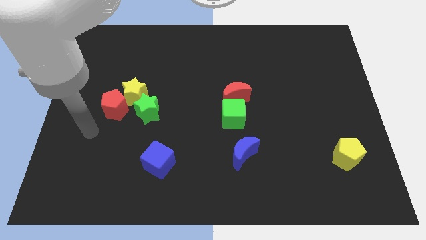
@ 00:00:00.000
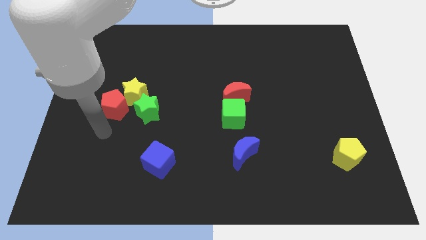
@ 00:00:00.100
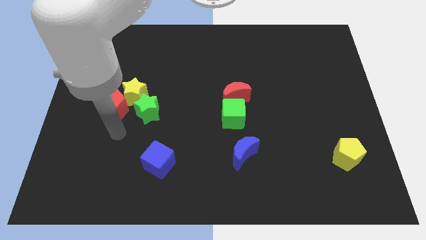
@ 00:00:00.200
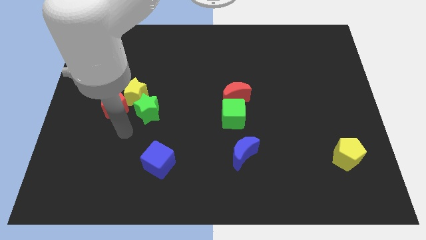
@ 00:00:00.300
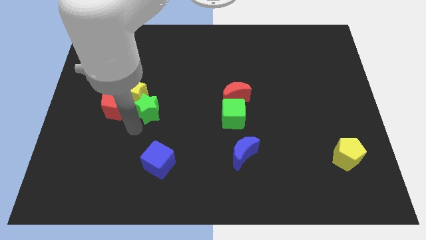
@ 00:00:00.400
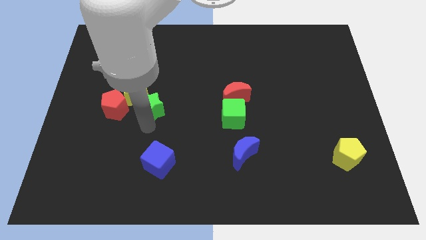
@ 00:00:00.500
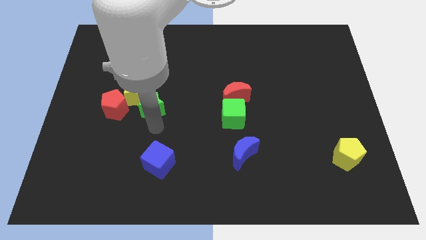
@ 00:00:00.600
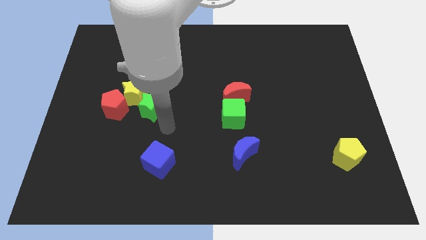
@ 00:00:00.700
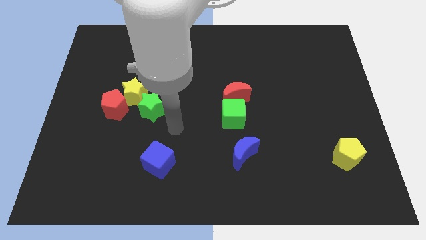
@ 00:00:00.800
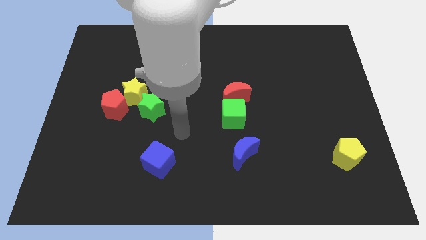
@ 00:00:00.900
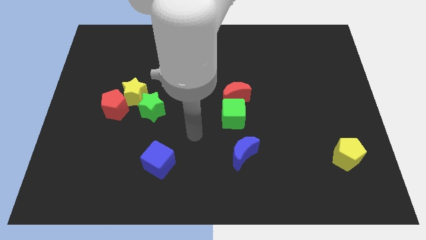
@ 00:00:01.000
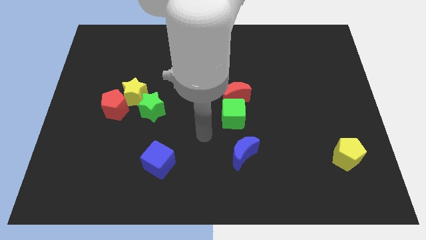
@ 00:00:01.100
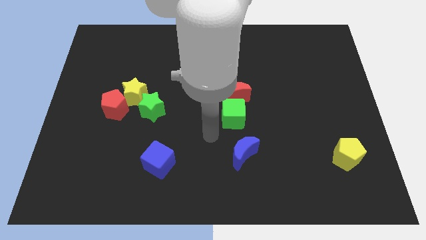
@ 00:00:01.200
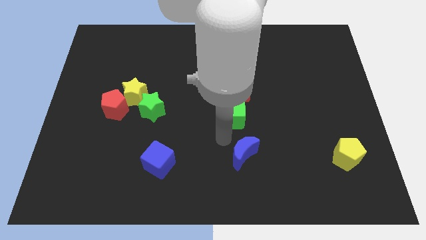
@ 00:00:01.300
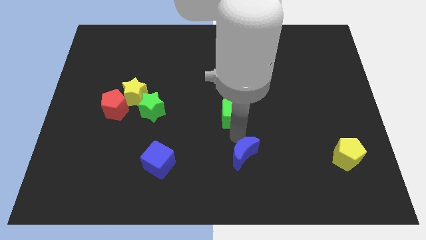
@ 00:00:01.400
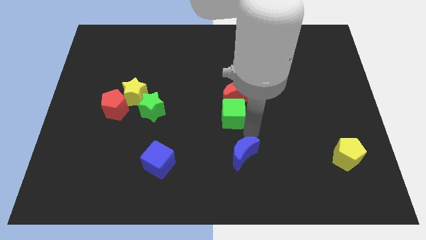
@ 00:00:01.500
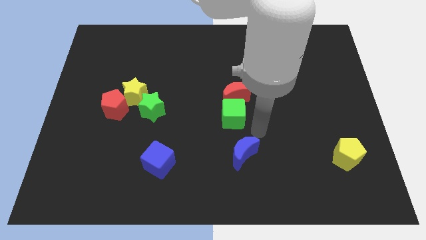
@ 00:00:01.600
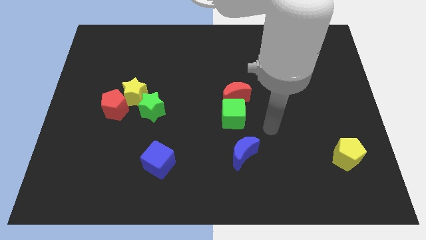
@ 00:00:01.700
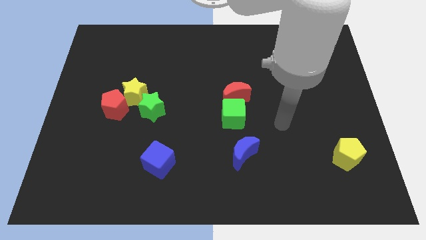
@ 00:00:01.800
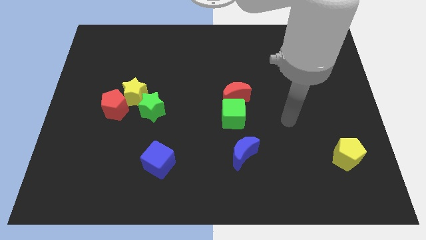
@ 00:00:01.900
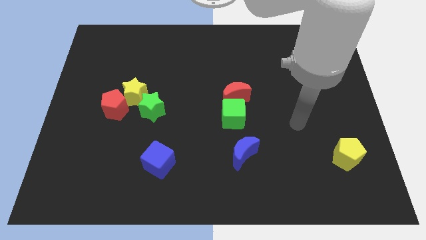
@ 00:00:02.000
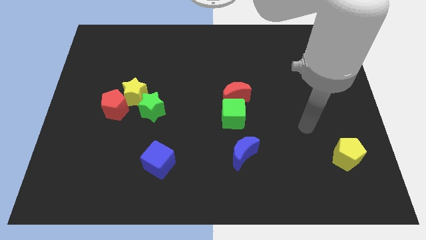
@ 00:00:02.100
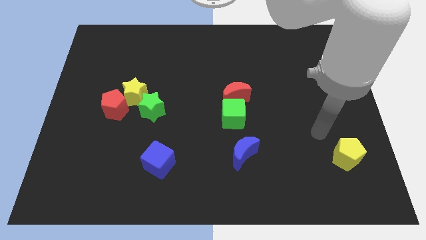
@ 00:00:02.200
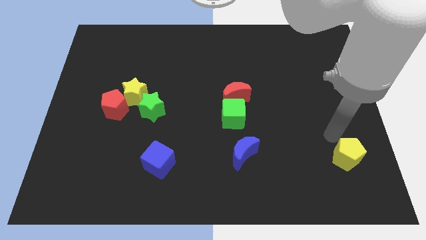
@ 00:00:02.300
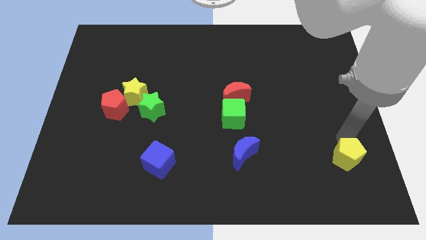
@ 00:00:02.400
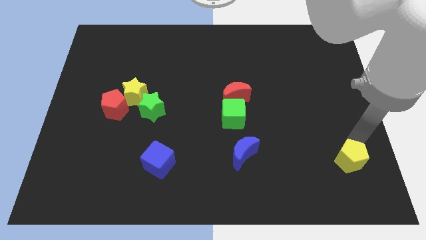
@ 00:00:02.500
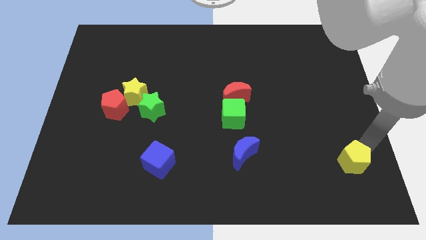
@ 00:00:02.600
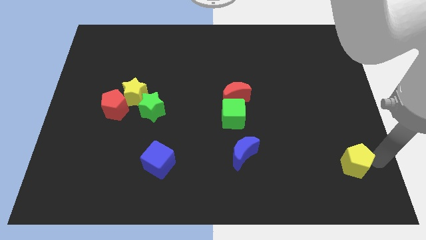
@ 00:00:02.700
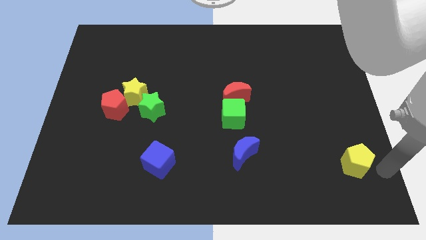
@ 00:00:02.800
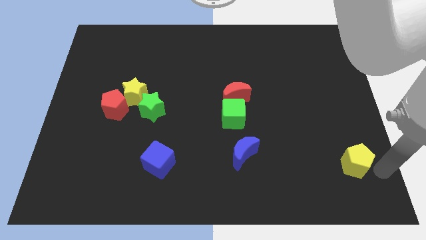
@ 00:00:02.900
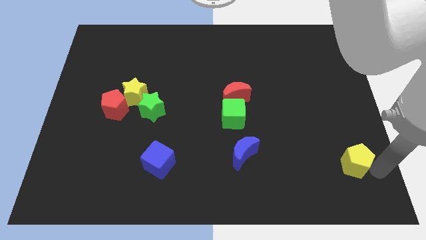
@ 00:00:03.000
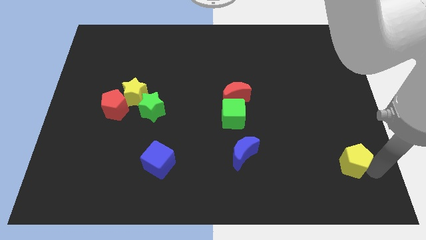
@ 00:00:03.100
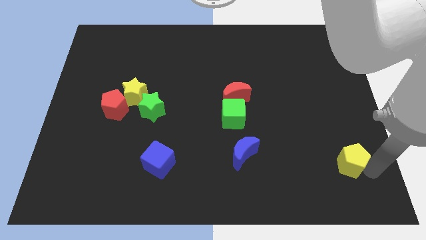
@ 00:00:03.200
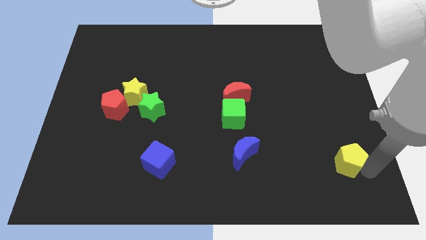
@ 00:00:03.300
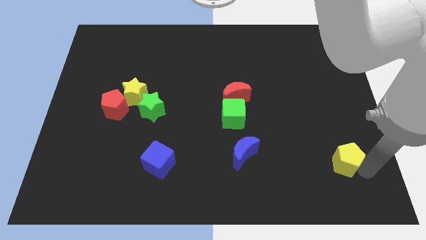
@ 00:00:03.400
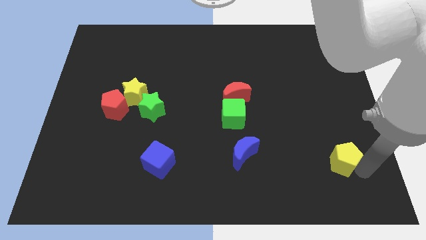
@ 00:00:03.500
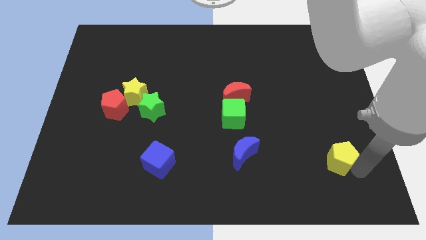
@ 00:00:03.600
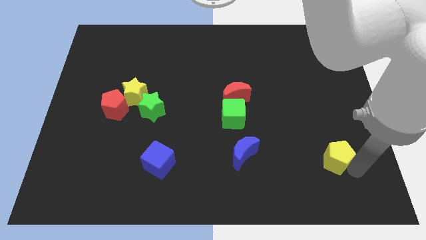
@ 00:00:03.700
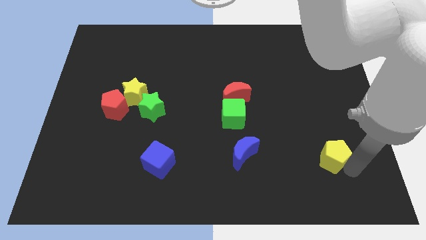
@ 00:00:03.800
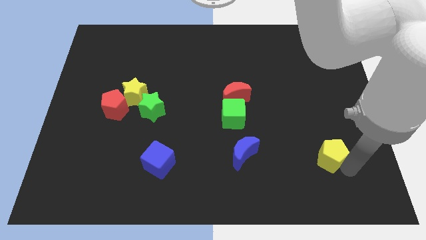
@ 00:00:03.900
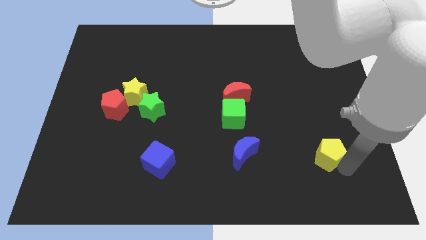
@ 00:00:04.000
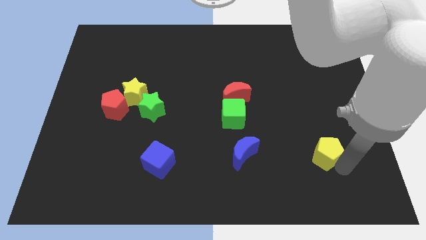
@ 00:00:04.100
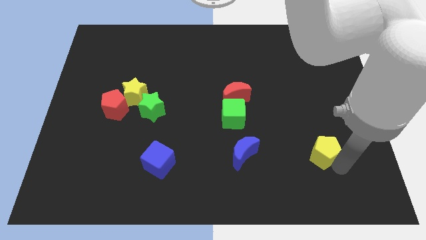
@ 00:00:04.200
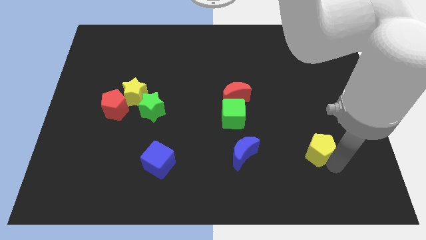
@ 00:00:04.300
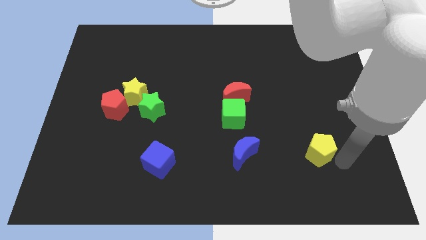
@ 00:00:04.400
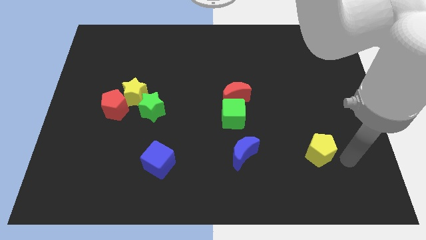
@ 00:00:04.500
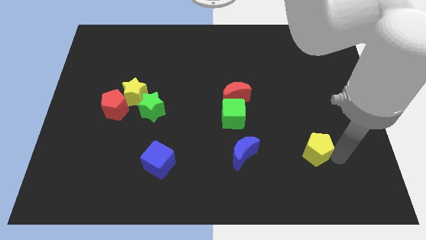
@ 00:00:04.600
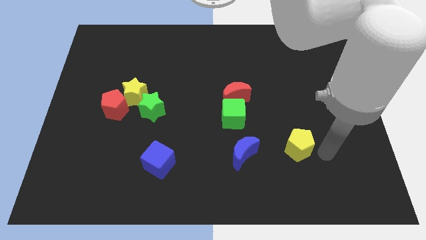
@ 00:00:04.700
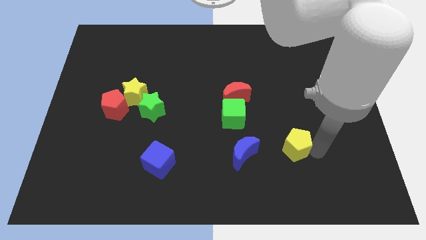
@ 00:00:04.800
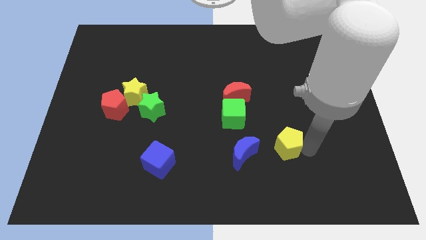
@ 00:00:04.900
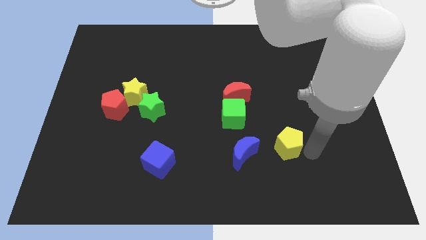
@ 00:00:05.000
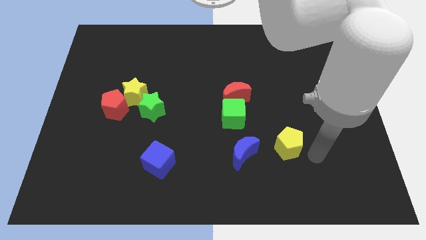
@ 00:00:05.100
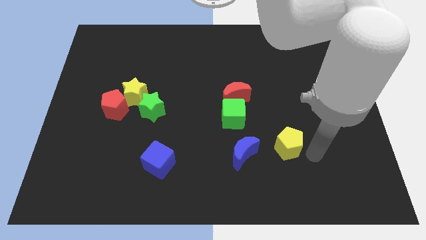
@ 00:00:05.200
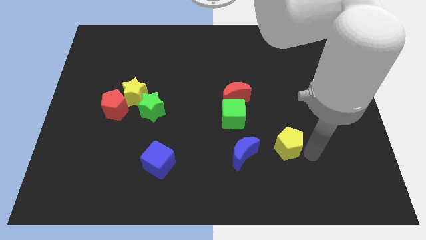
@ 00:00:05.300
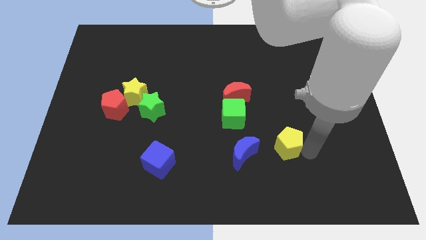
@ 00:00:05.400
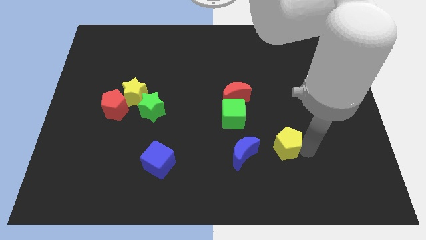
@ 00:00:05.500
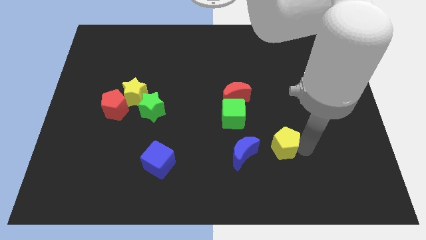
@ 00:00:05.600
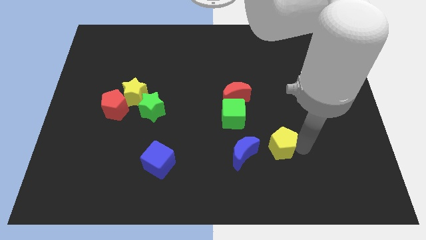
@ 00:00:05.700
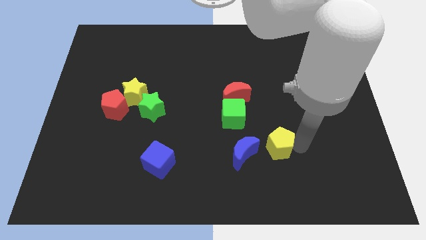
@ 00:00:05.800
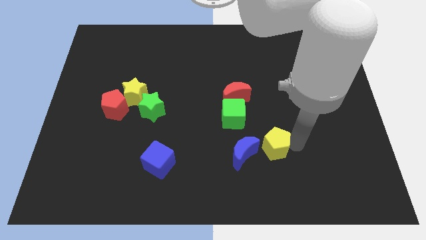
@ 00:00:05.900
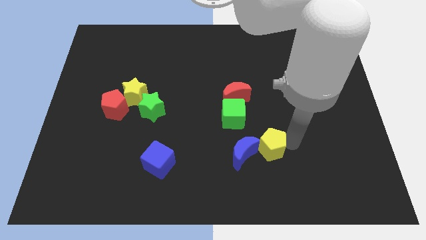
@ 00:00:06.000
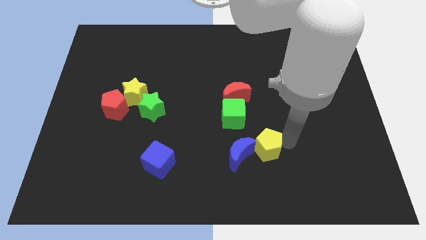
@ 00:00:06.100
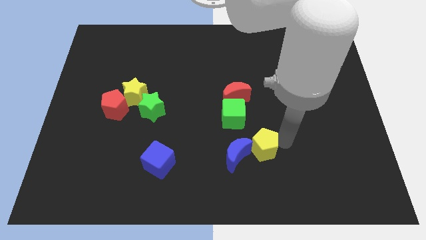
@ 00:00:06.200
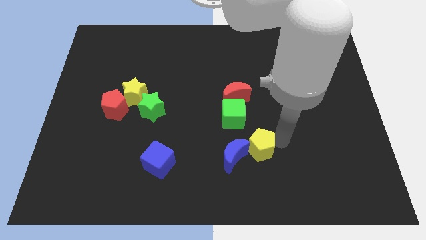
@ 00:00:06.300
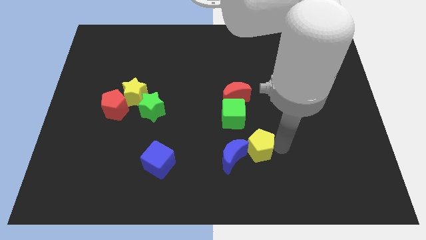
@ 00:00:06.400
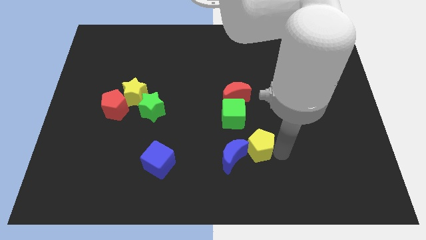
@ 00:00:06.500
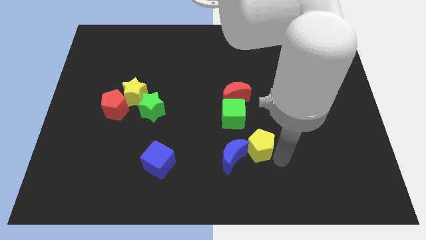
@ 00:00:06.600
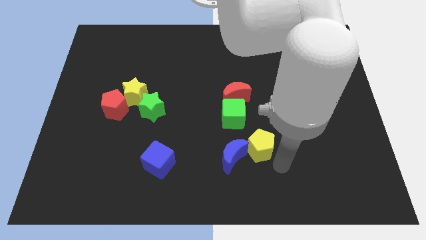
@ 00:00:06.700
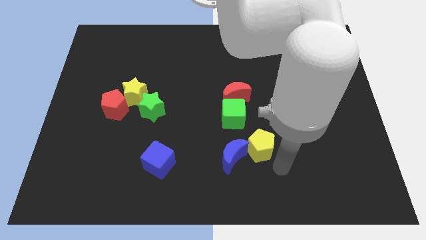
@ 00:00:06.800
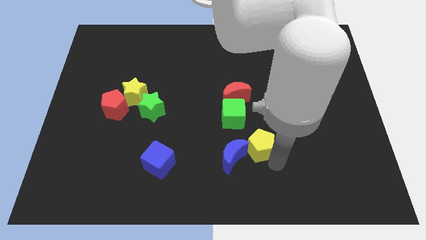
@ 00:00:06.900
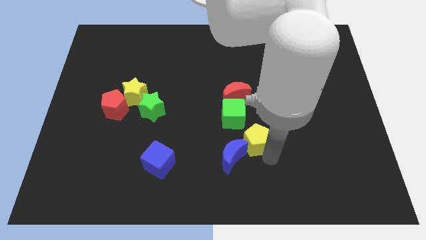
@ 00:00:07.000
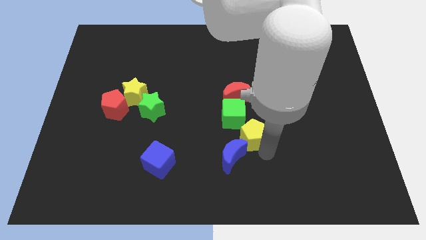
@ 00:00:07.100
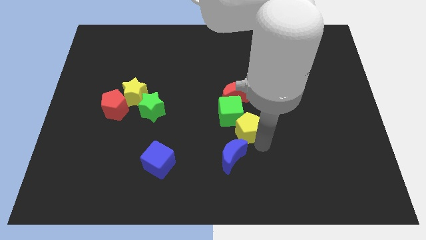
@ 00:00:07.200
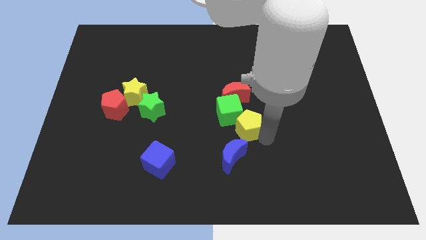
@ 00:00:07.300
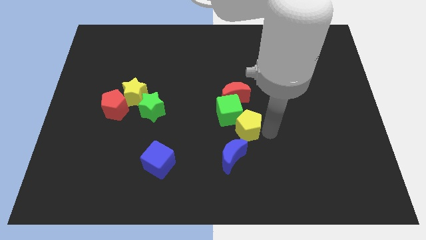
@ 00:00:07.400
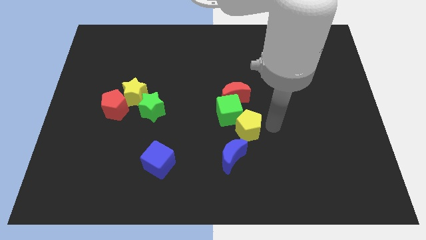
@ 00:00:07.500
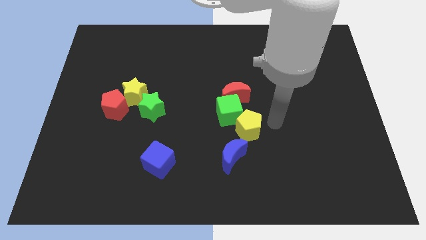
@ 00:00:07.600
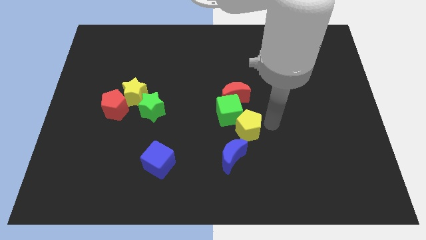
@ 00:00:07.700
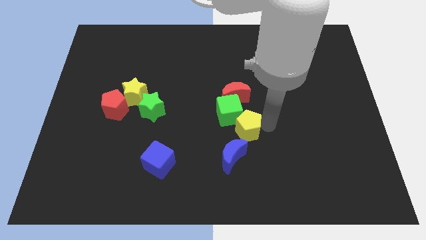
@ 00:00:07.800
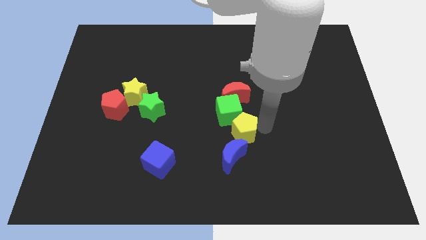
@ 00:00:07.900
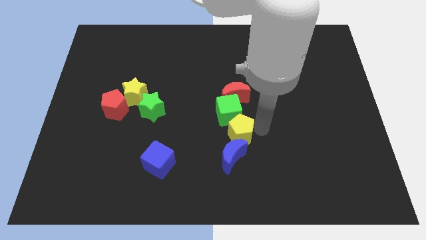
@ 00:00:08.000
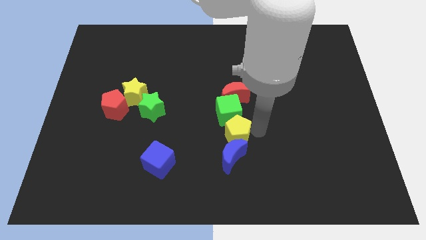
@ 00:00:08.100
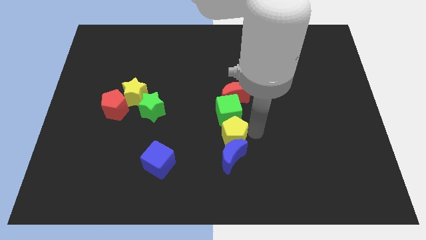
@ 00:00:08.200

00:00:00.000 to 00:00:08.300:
slide the yellow pentagon diagonally up and to the left of the blue moon
